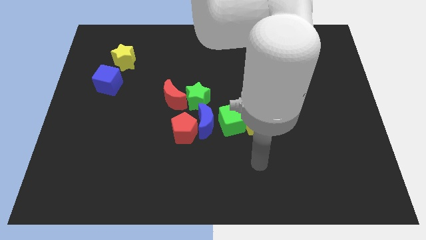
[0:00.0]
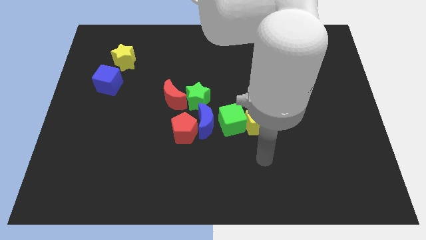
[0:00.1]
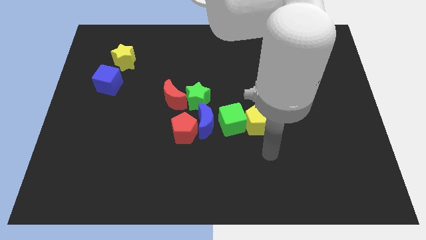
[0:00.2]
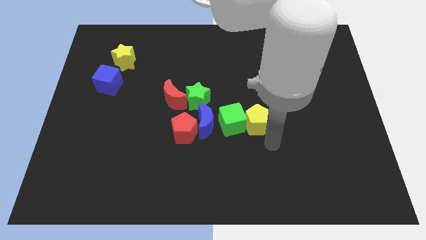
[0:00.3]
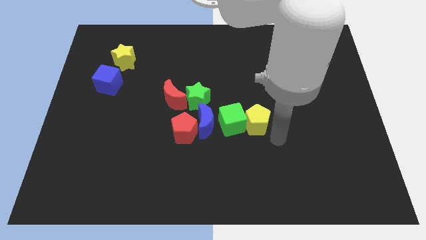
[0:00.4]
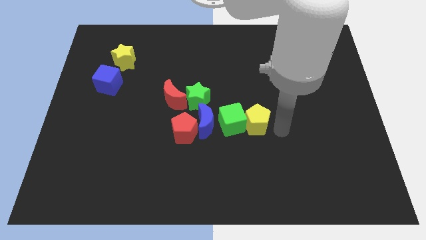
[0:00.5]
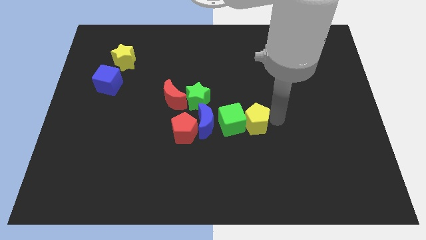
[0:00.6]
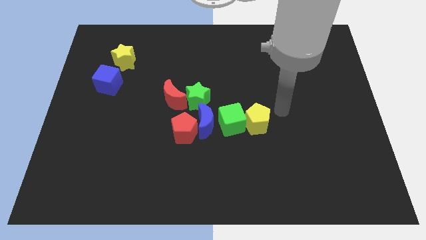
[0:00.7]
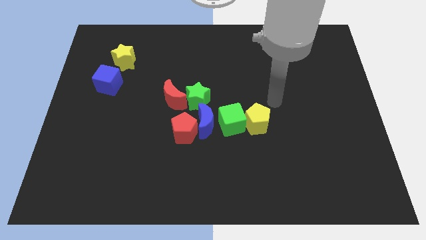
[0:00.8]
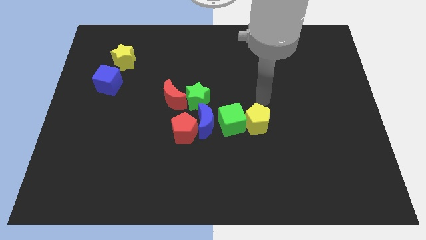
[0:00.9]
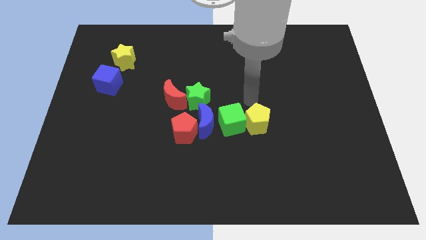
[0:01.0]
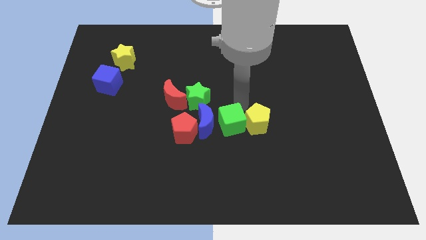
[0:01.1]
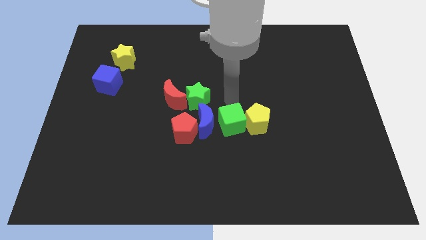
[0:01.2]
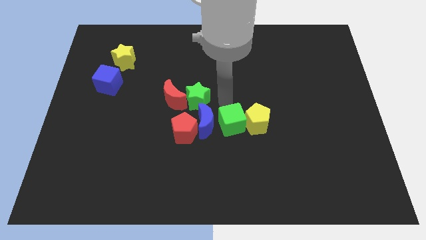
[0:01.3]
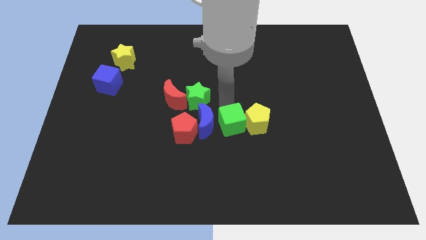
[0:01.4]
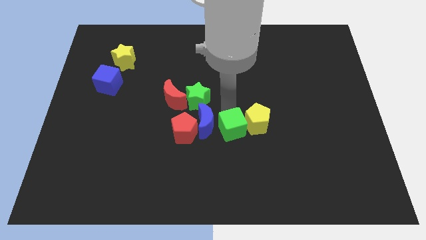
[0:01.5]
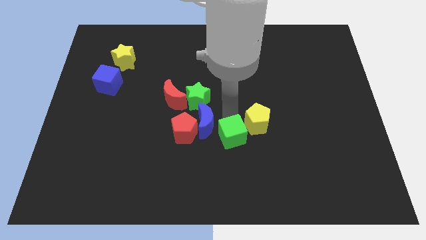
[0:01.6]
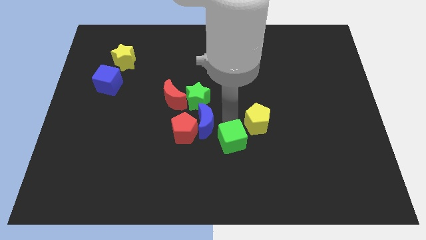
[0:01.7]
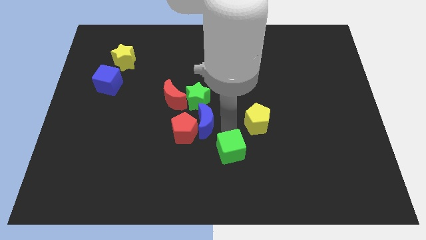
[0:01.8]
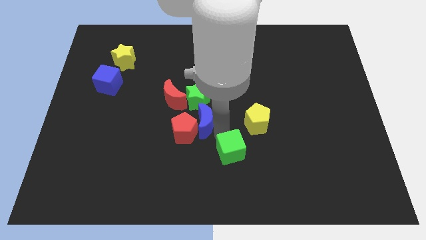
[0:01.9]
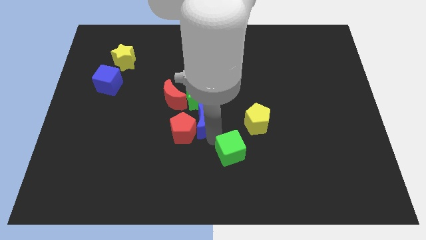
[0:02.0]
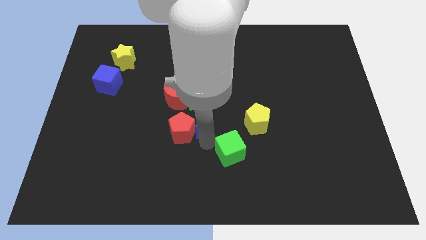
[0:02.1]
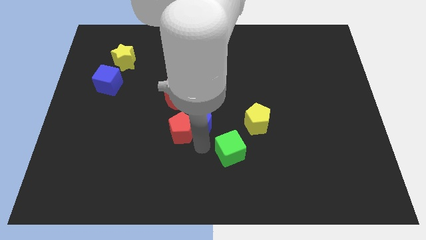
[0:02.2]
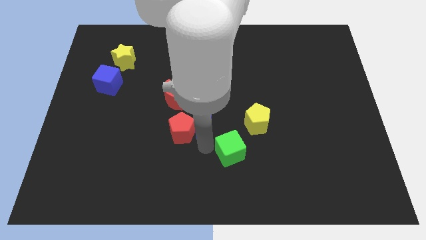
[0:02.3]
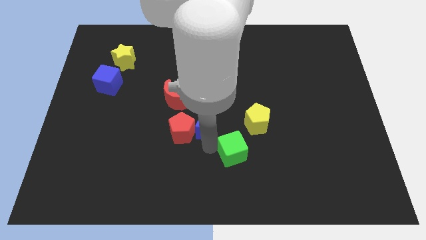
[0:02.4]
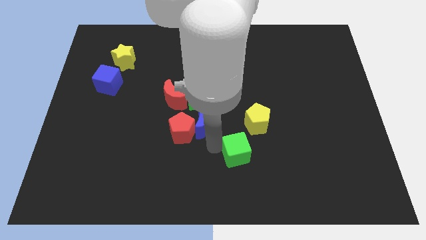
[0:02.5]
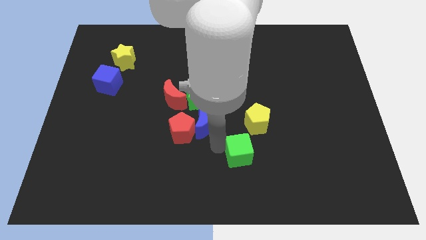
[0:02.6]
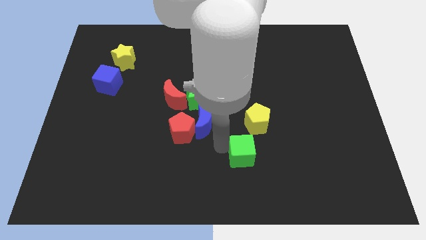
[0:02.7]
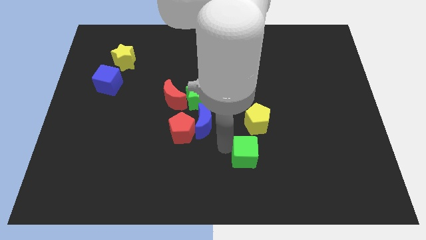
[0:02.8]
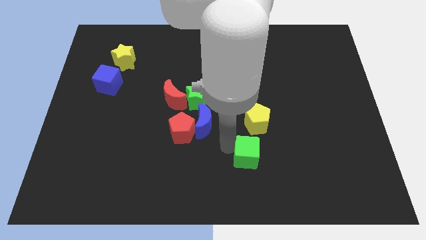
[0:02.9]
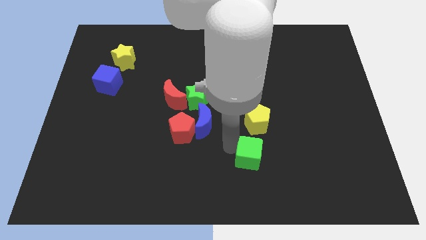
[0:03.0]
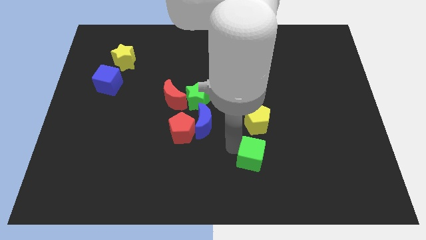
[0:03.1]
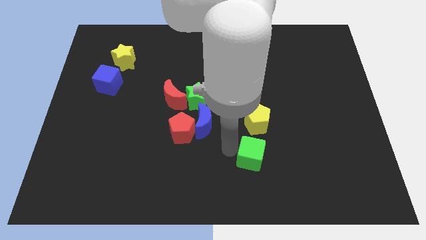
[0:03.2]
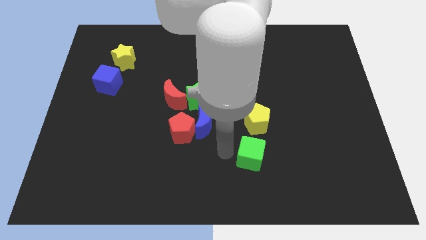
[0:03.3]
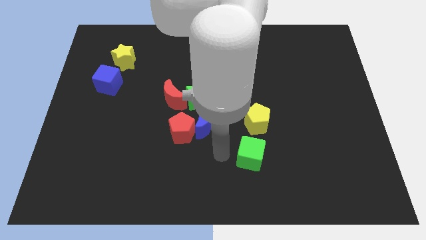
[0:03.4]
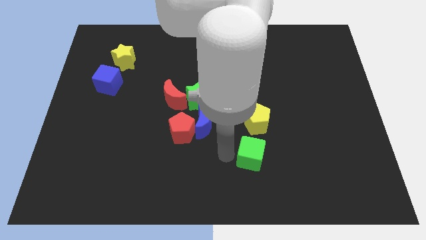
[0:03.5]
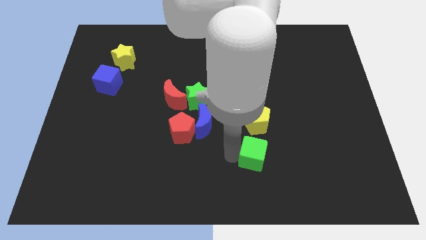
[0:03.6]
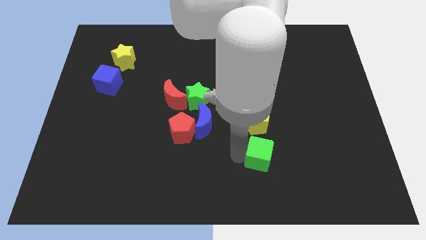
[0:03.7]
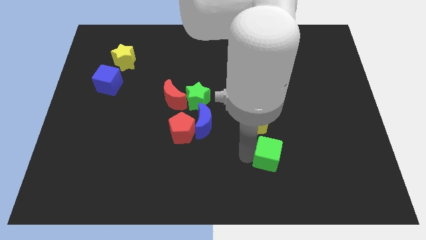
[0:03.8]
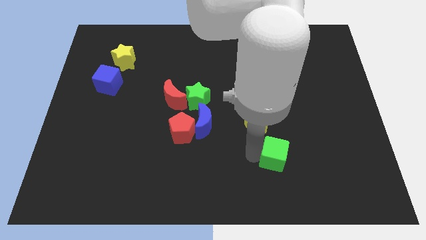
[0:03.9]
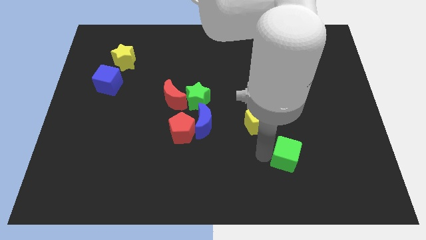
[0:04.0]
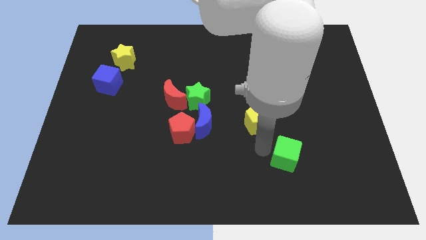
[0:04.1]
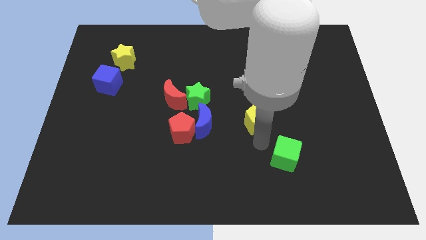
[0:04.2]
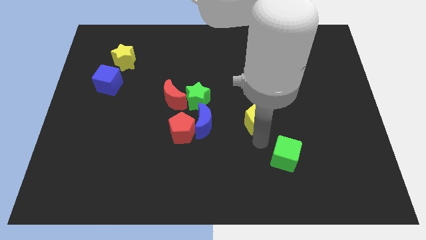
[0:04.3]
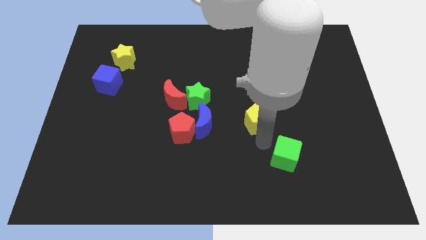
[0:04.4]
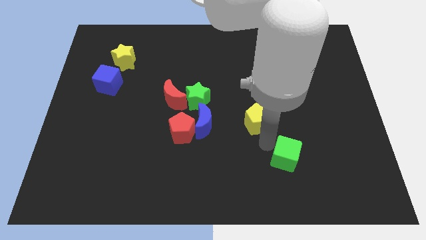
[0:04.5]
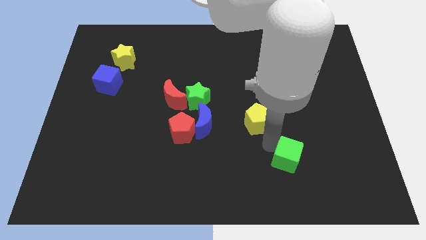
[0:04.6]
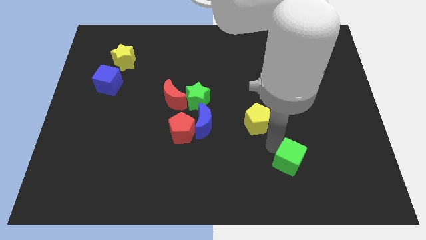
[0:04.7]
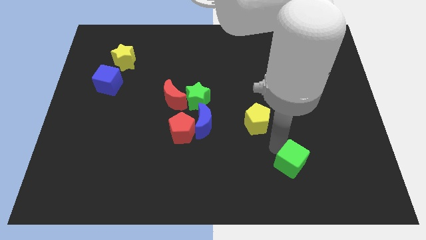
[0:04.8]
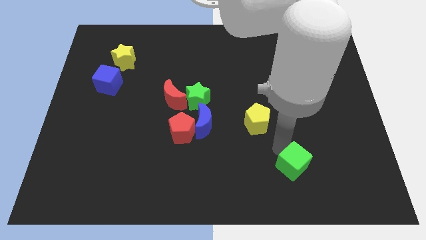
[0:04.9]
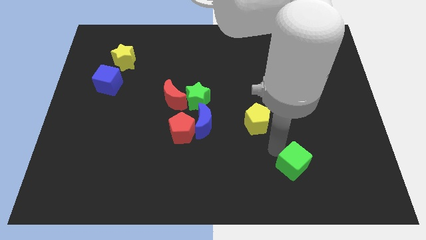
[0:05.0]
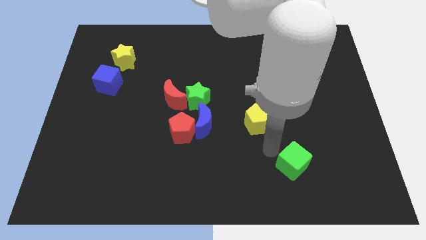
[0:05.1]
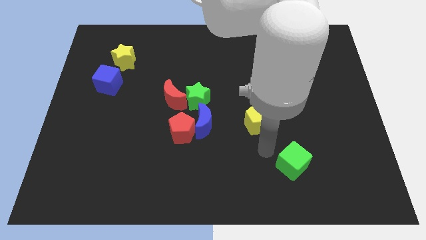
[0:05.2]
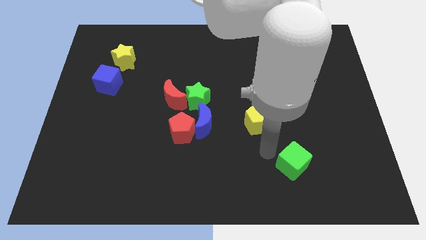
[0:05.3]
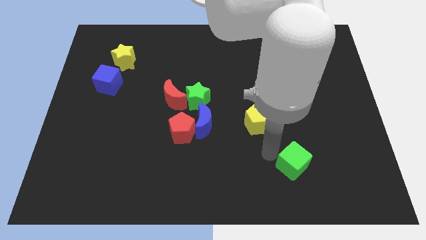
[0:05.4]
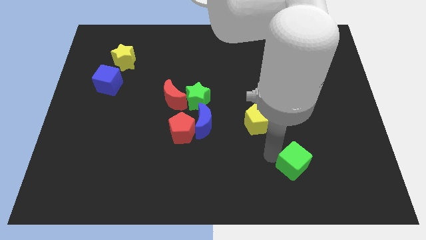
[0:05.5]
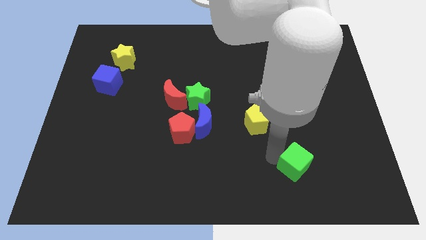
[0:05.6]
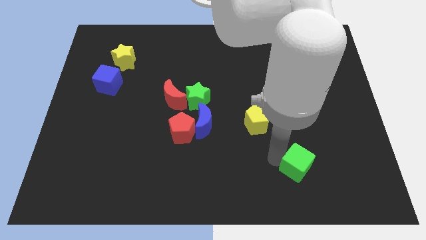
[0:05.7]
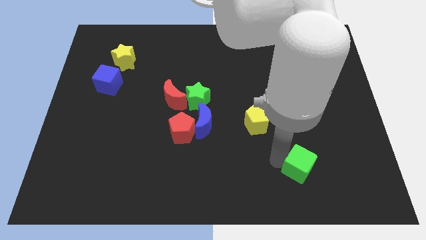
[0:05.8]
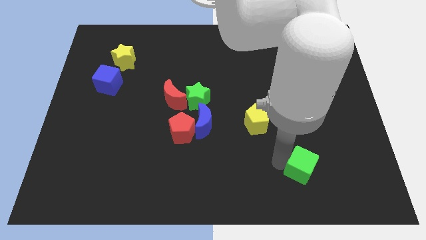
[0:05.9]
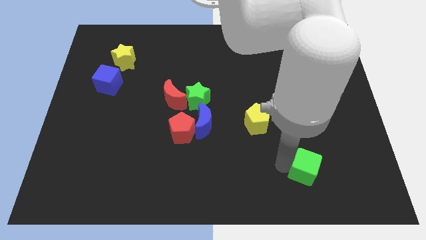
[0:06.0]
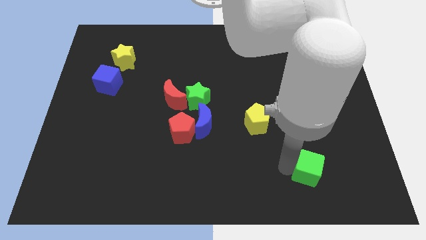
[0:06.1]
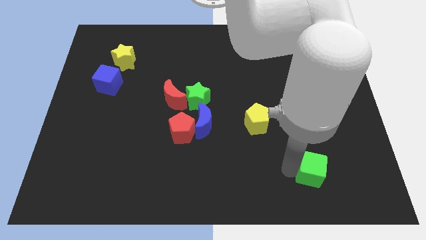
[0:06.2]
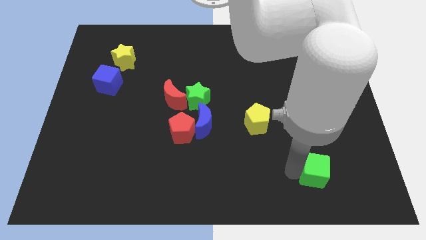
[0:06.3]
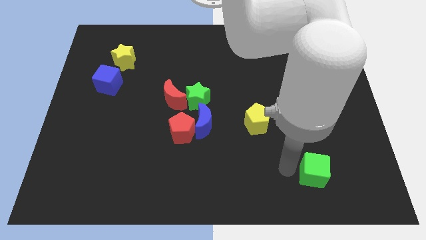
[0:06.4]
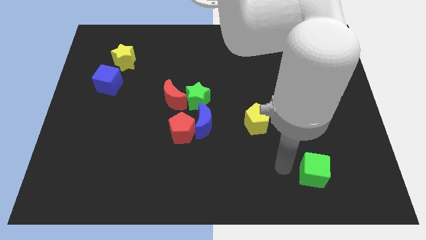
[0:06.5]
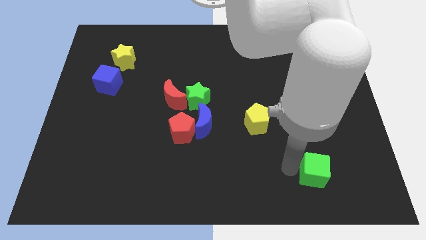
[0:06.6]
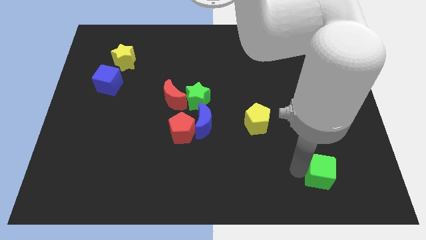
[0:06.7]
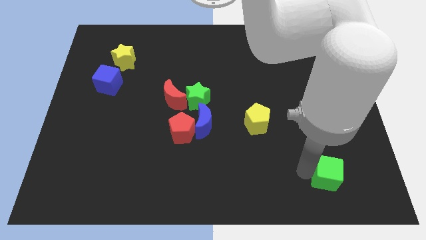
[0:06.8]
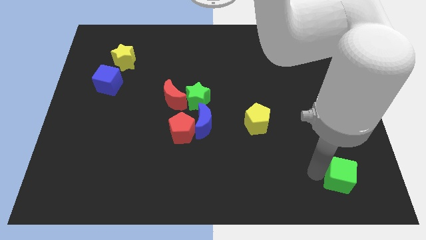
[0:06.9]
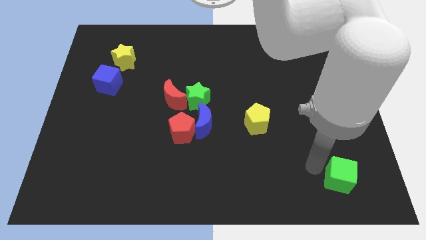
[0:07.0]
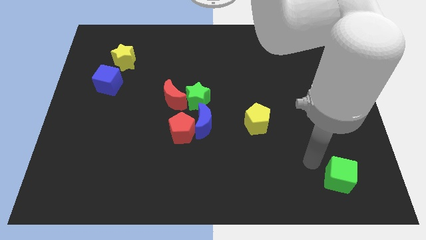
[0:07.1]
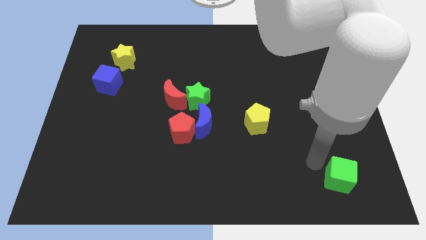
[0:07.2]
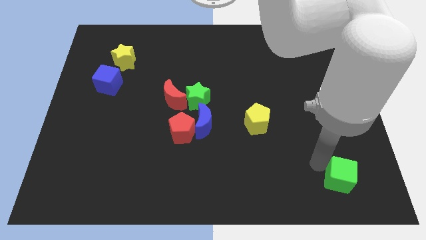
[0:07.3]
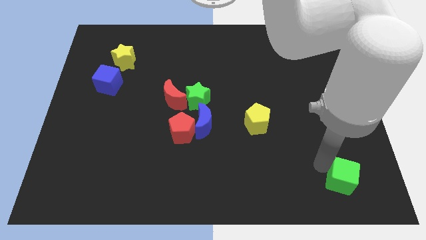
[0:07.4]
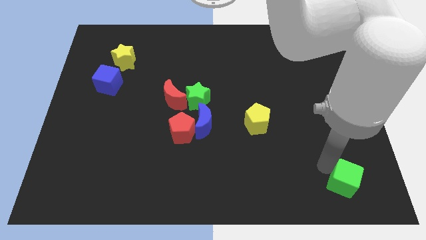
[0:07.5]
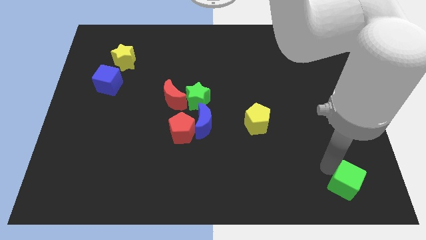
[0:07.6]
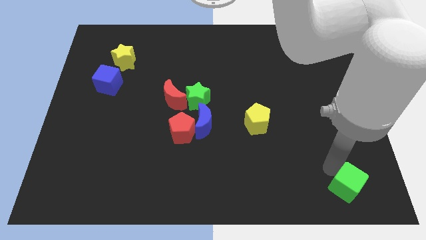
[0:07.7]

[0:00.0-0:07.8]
slide the green cube to the bottom right corner
